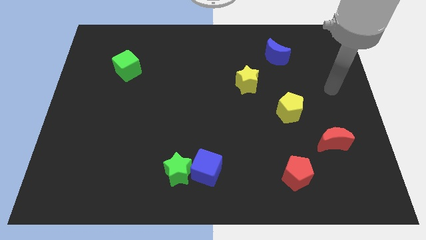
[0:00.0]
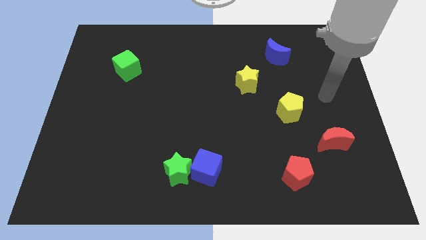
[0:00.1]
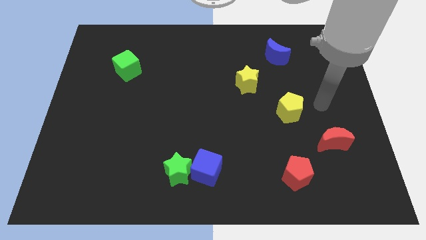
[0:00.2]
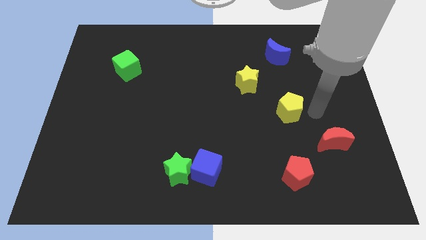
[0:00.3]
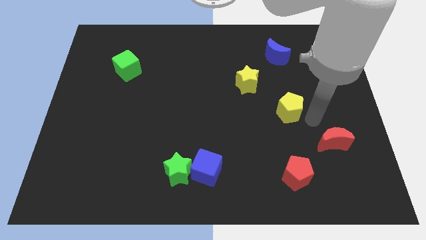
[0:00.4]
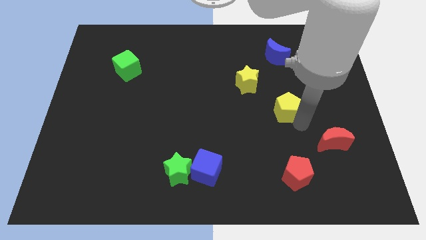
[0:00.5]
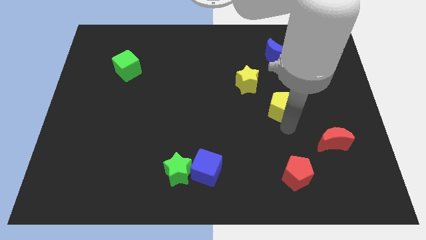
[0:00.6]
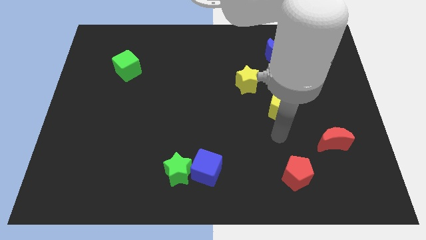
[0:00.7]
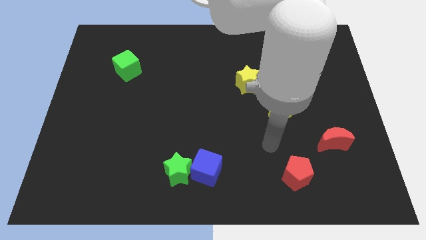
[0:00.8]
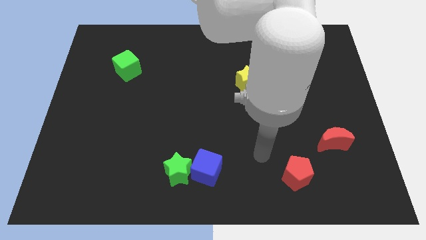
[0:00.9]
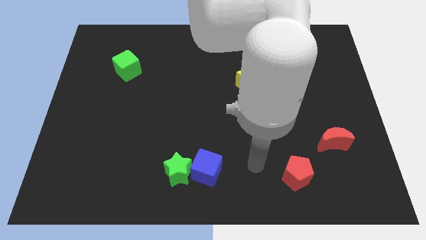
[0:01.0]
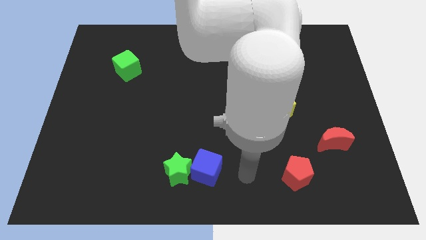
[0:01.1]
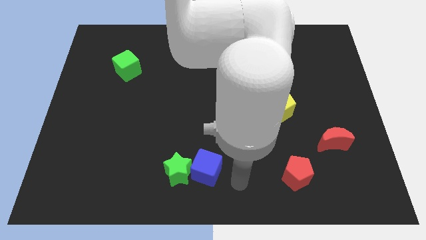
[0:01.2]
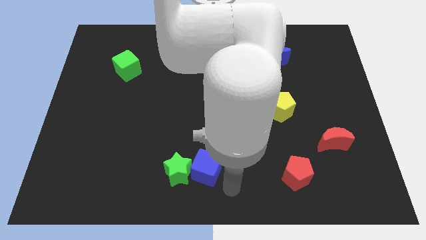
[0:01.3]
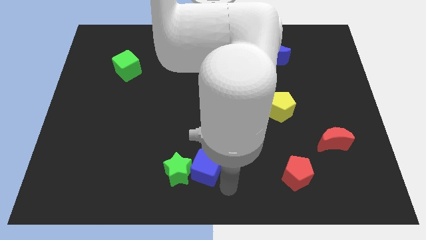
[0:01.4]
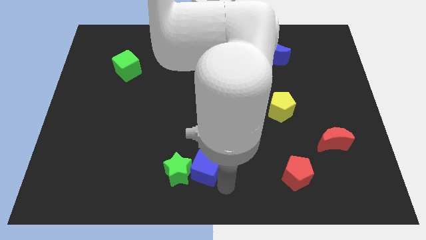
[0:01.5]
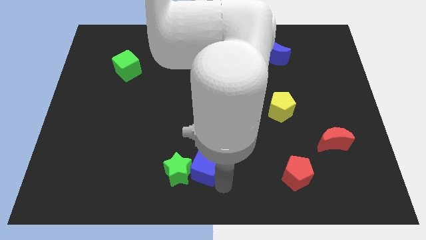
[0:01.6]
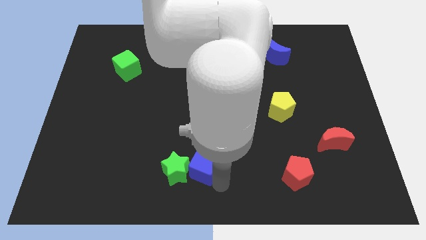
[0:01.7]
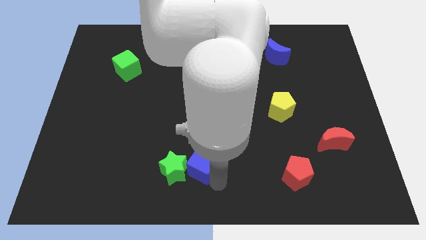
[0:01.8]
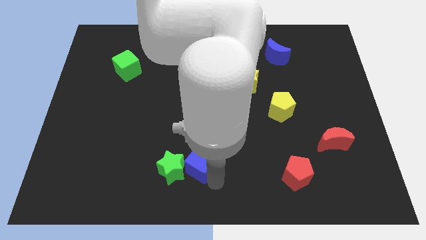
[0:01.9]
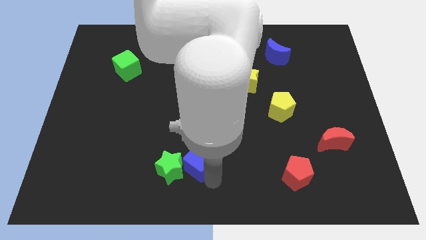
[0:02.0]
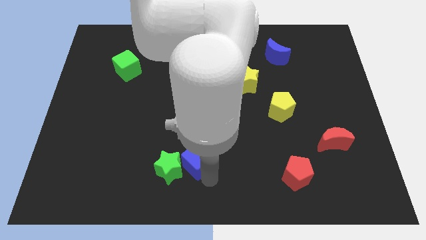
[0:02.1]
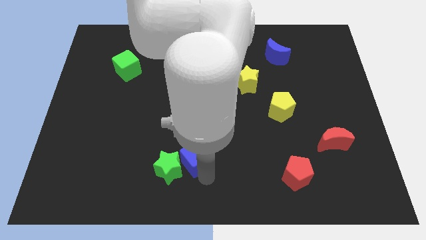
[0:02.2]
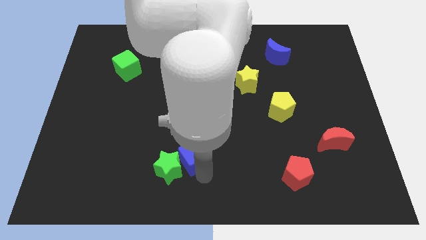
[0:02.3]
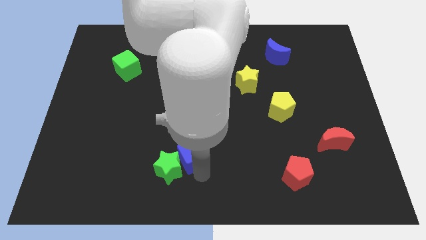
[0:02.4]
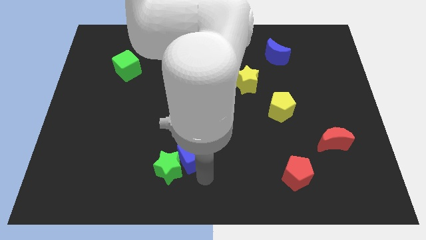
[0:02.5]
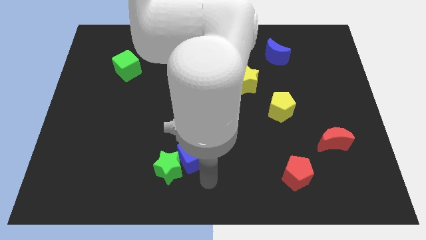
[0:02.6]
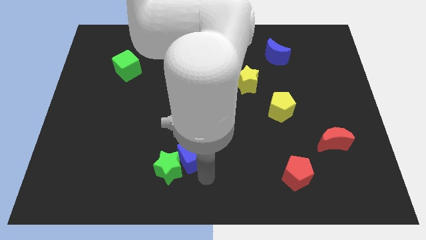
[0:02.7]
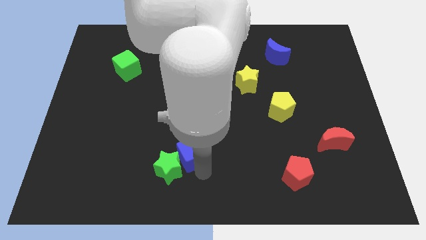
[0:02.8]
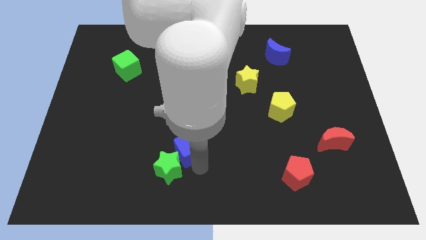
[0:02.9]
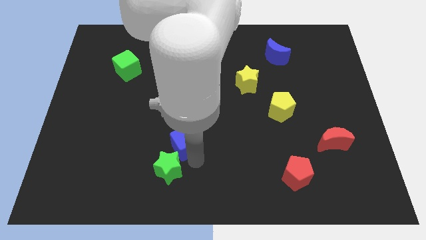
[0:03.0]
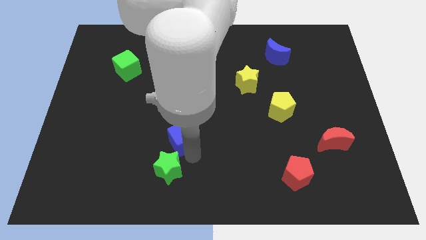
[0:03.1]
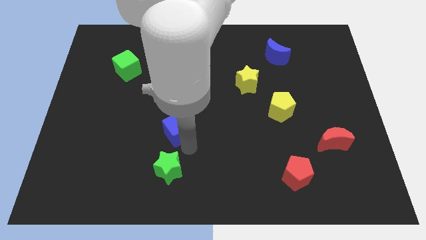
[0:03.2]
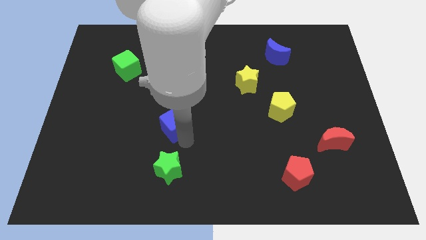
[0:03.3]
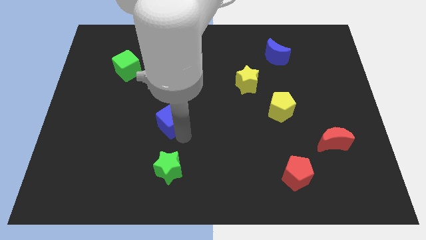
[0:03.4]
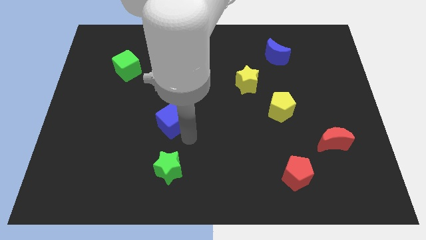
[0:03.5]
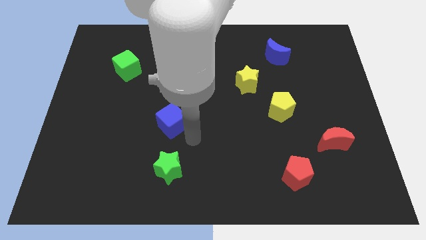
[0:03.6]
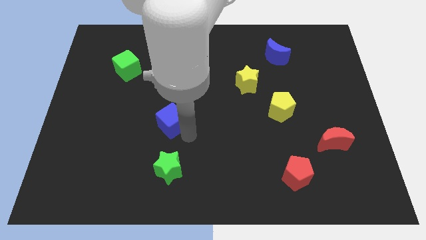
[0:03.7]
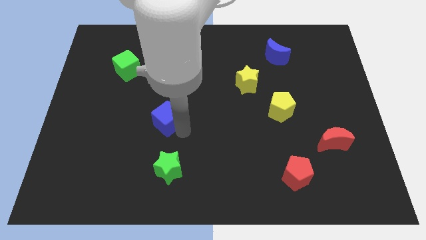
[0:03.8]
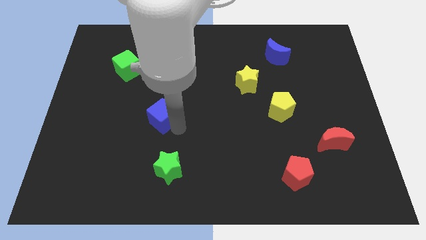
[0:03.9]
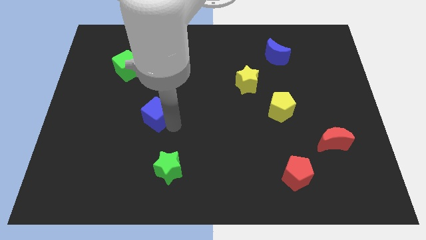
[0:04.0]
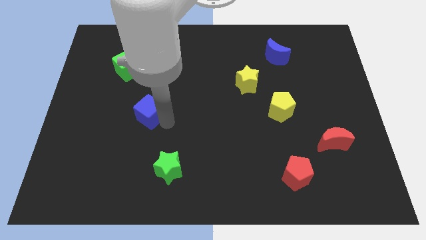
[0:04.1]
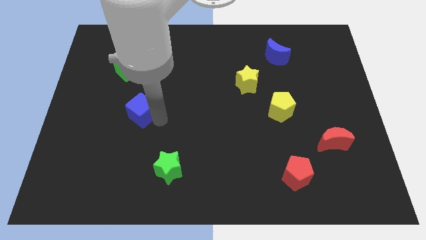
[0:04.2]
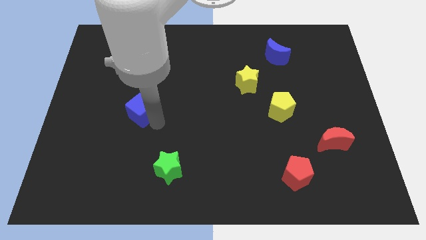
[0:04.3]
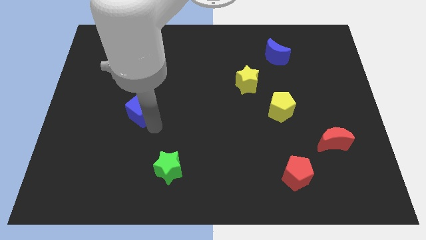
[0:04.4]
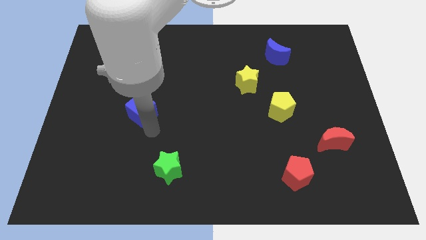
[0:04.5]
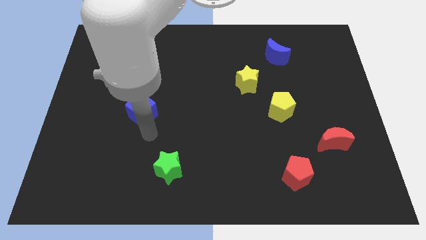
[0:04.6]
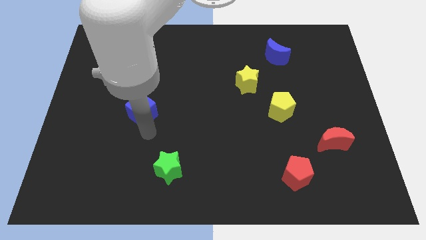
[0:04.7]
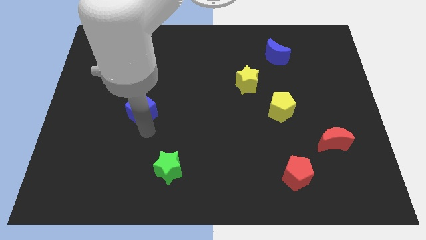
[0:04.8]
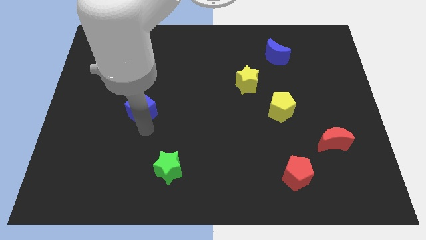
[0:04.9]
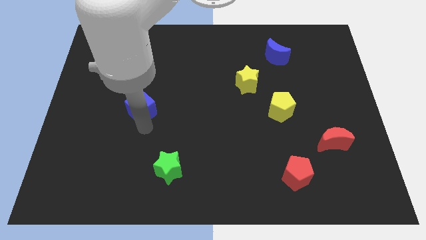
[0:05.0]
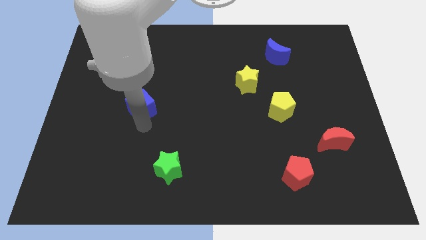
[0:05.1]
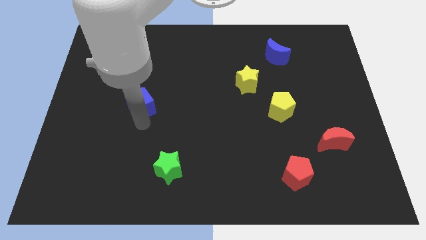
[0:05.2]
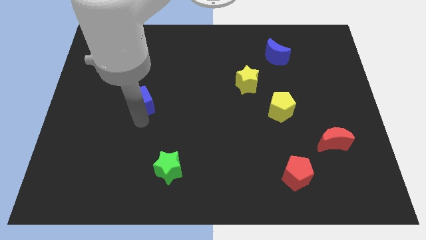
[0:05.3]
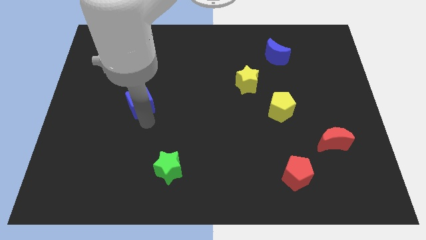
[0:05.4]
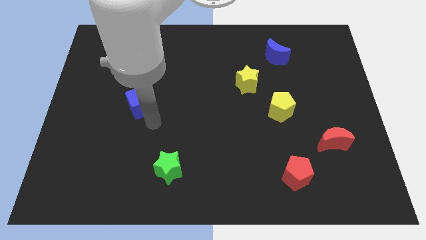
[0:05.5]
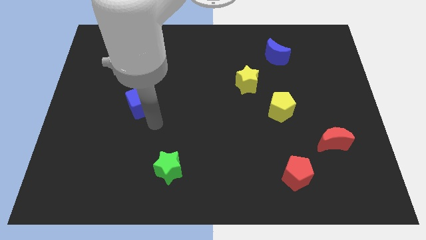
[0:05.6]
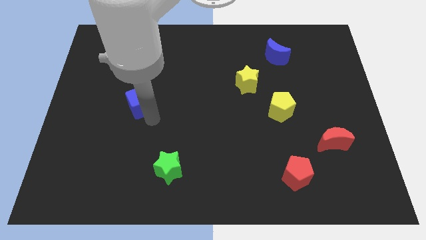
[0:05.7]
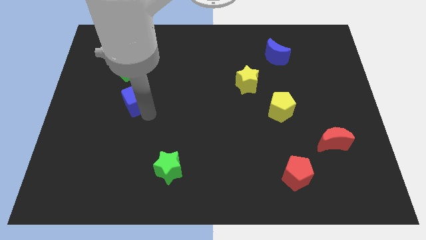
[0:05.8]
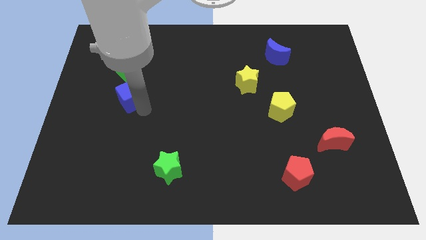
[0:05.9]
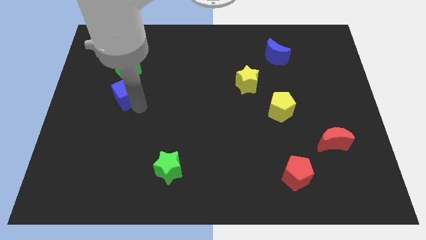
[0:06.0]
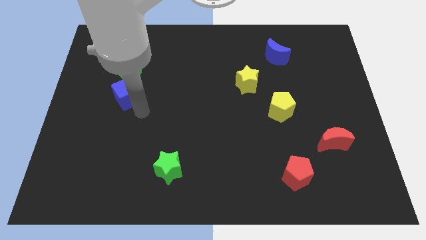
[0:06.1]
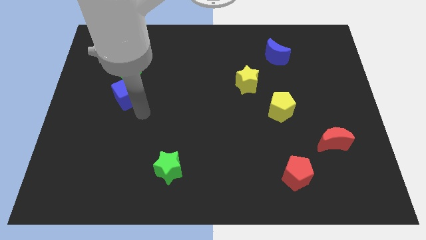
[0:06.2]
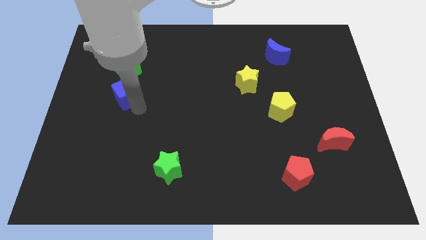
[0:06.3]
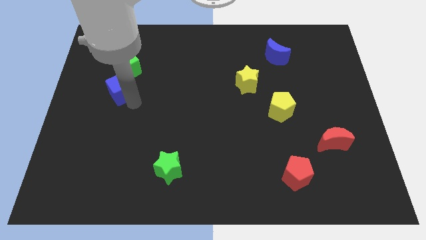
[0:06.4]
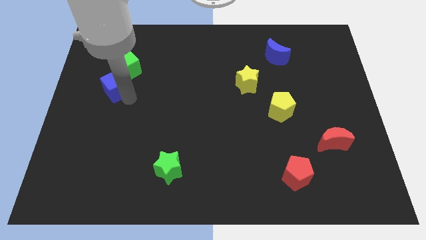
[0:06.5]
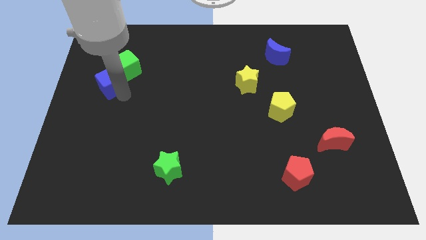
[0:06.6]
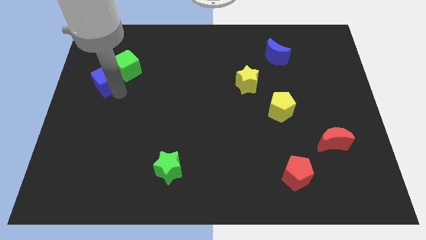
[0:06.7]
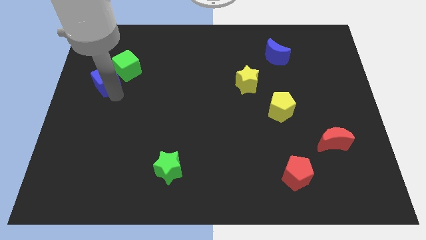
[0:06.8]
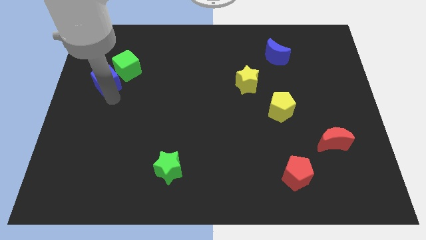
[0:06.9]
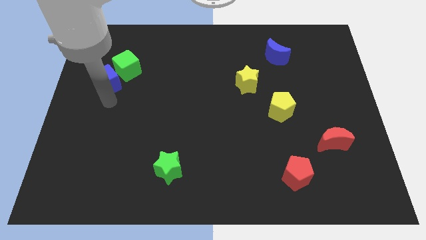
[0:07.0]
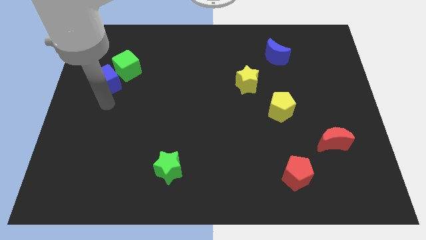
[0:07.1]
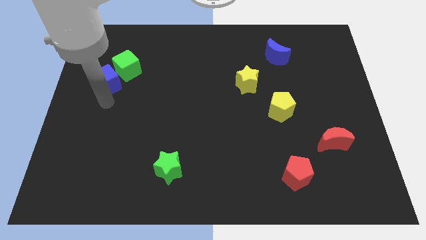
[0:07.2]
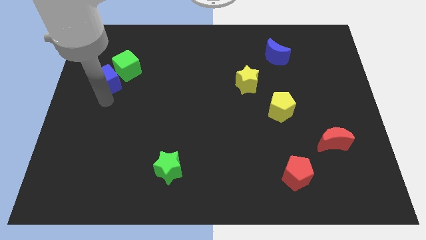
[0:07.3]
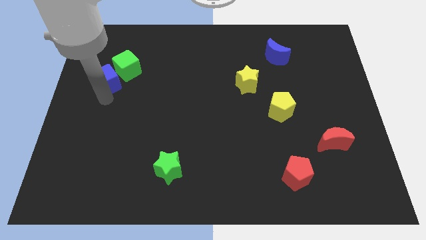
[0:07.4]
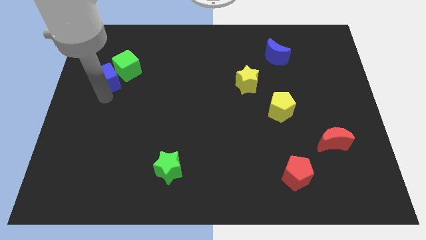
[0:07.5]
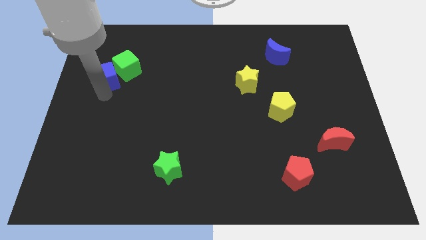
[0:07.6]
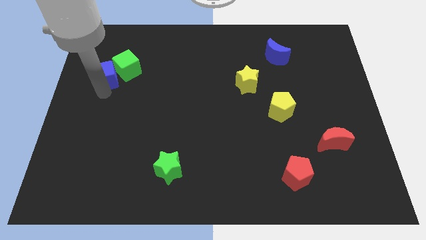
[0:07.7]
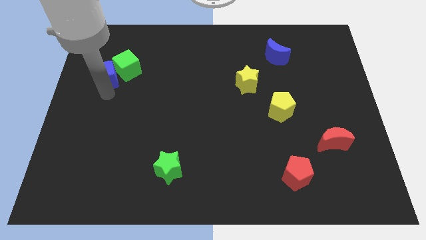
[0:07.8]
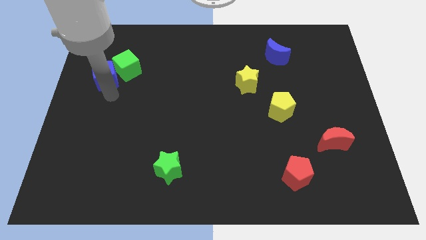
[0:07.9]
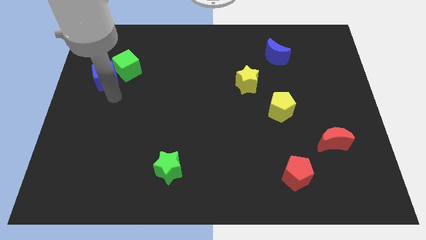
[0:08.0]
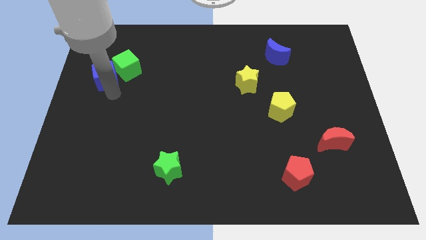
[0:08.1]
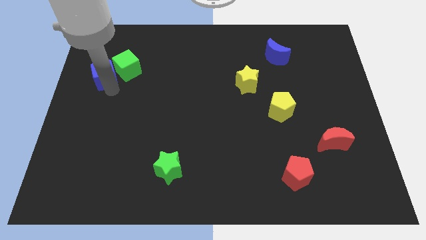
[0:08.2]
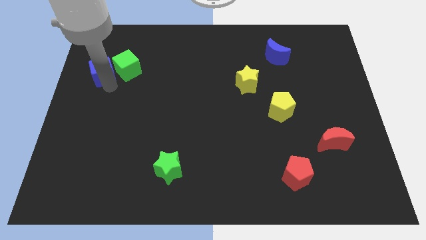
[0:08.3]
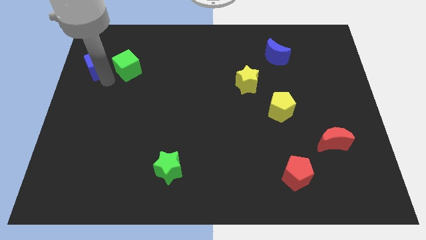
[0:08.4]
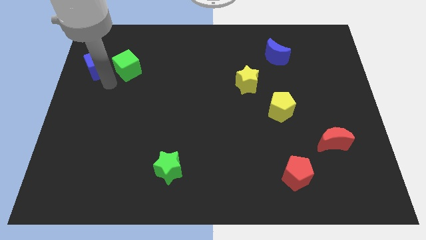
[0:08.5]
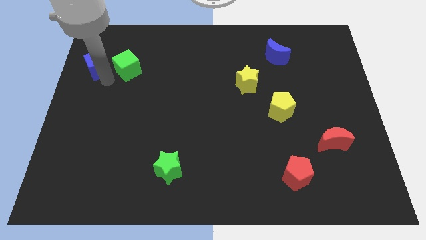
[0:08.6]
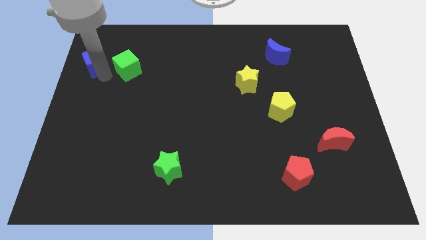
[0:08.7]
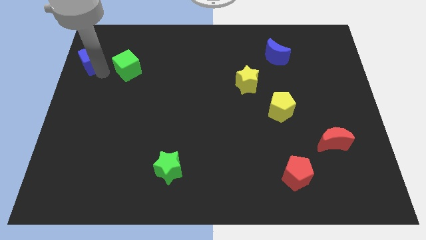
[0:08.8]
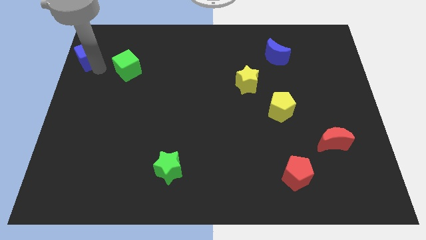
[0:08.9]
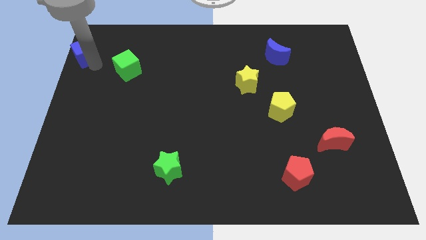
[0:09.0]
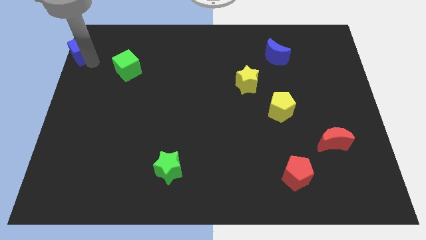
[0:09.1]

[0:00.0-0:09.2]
push the blue cube to the top left
